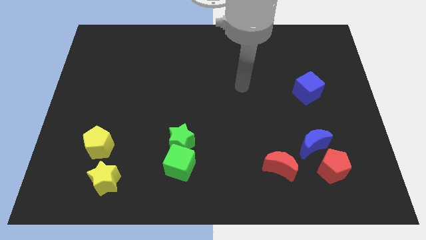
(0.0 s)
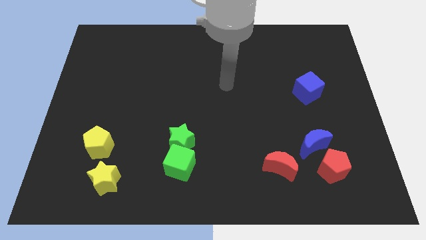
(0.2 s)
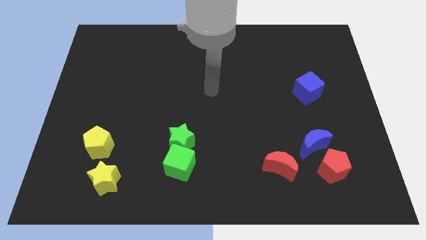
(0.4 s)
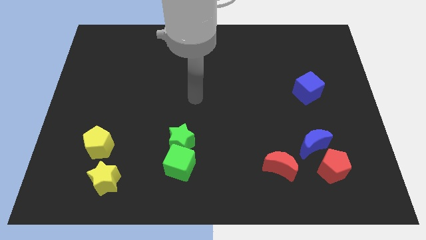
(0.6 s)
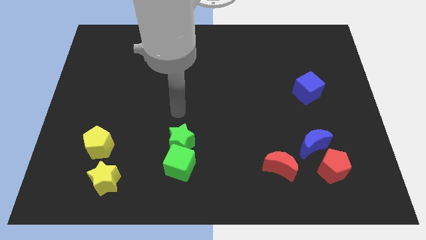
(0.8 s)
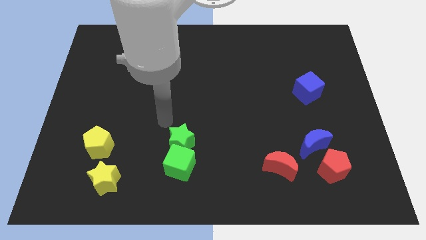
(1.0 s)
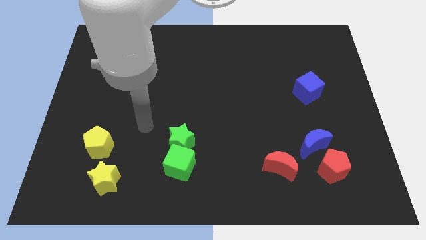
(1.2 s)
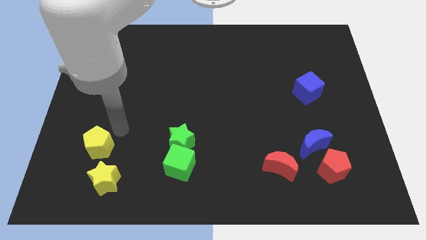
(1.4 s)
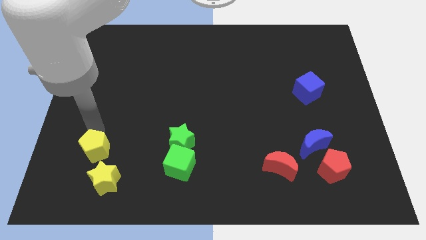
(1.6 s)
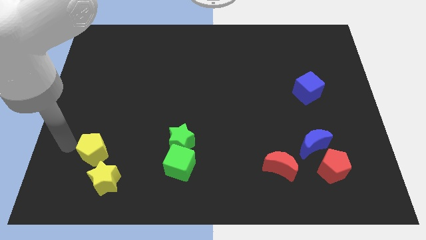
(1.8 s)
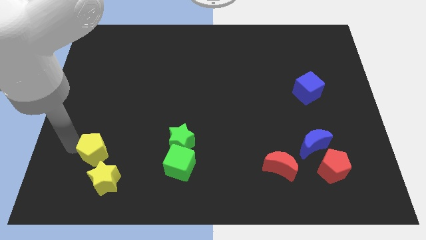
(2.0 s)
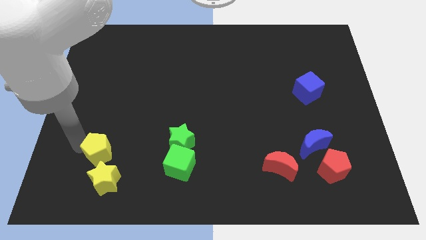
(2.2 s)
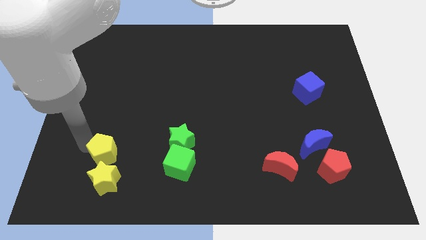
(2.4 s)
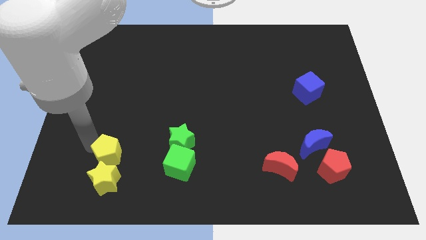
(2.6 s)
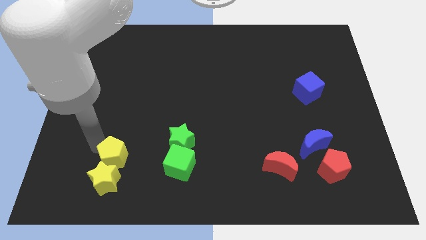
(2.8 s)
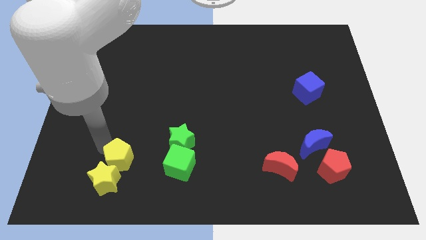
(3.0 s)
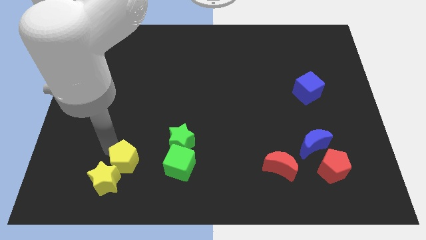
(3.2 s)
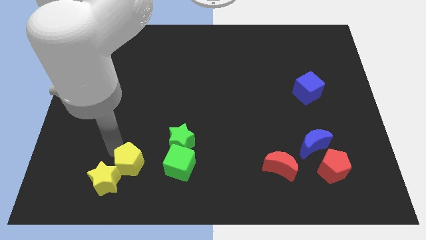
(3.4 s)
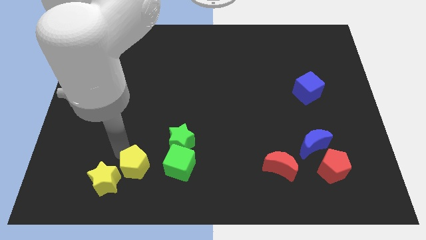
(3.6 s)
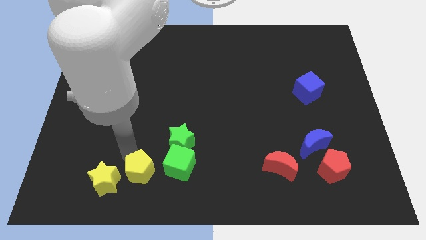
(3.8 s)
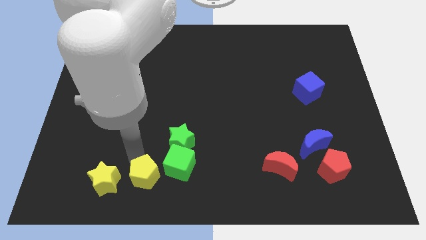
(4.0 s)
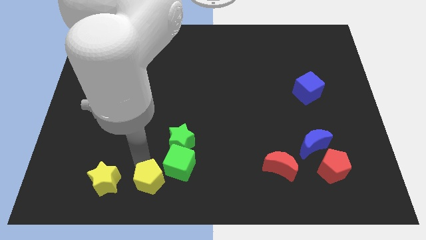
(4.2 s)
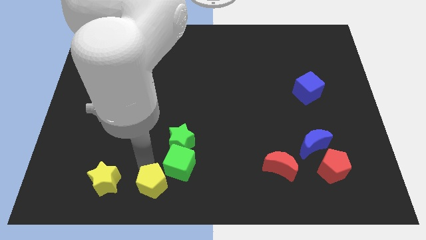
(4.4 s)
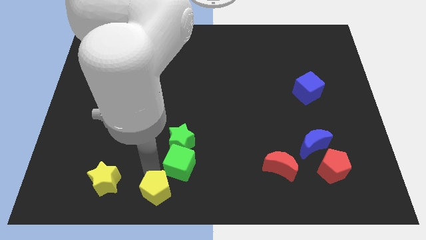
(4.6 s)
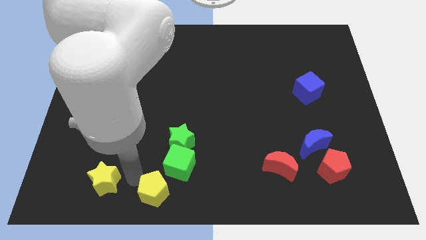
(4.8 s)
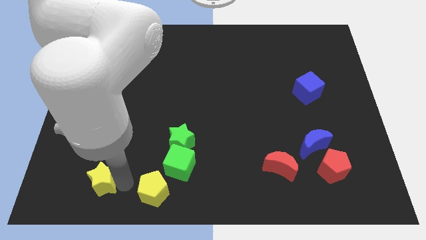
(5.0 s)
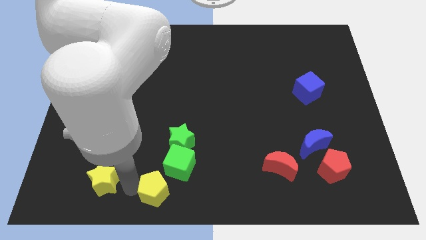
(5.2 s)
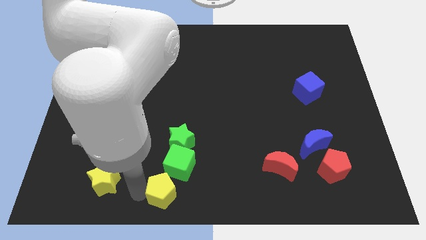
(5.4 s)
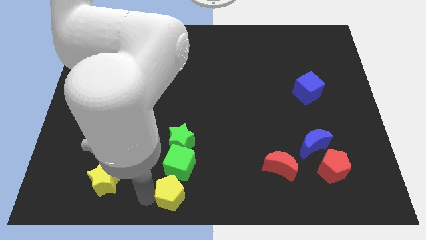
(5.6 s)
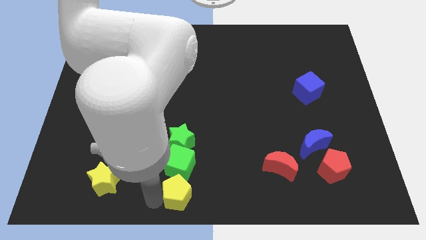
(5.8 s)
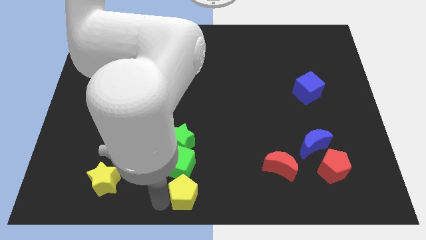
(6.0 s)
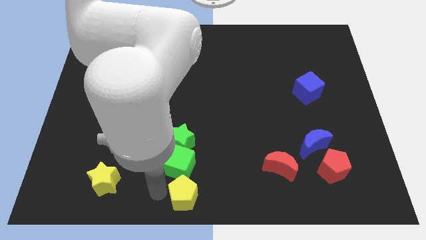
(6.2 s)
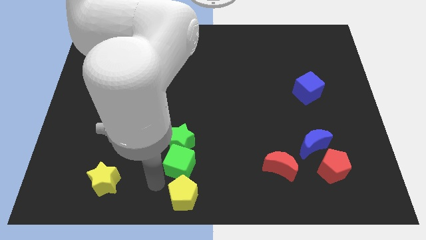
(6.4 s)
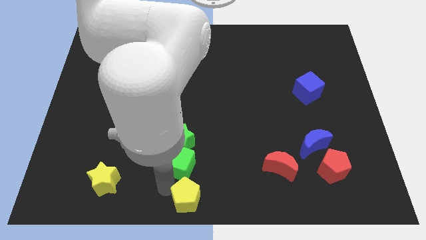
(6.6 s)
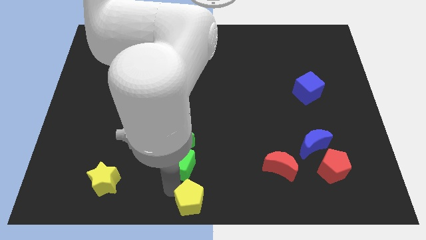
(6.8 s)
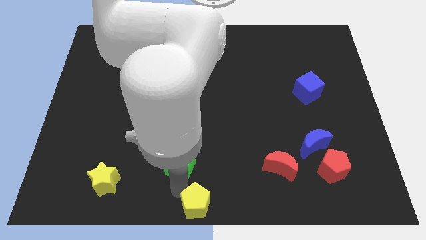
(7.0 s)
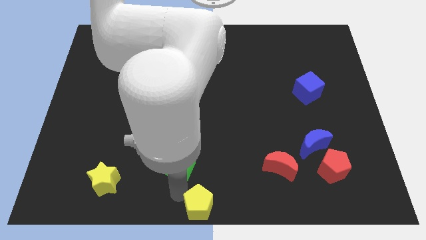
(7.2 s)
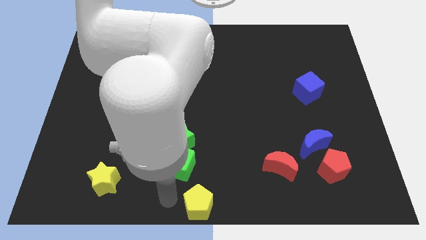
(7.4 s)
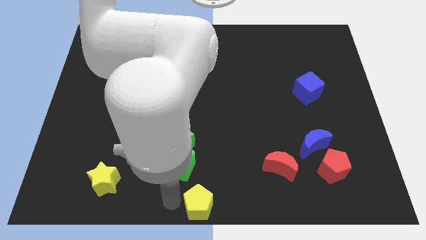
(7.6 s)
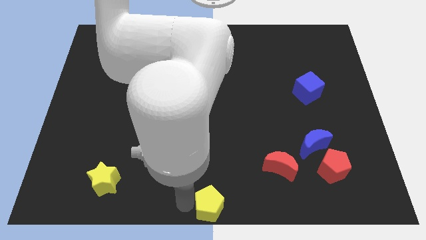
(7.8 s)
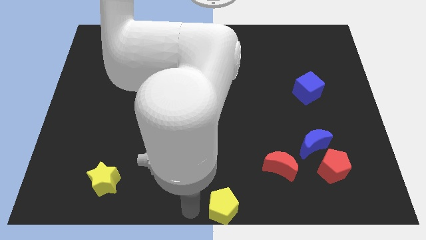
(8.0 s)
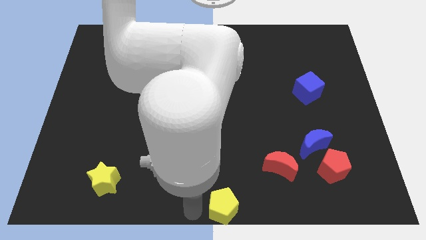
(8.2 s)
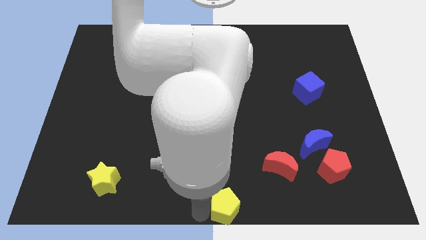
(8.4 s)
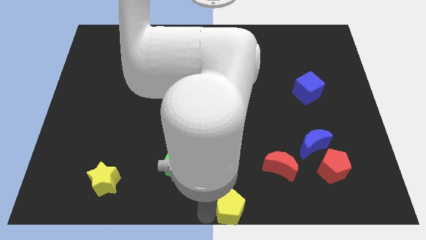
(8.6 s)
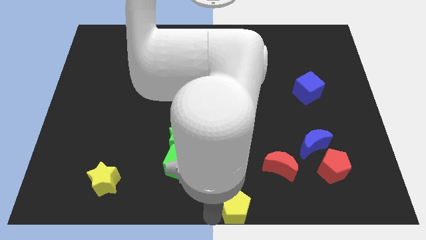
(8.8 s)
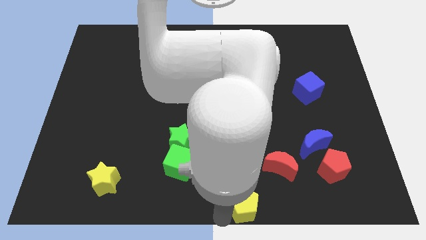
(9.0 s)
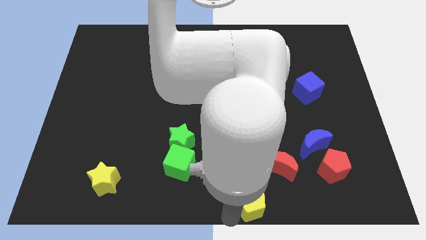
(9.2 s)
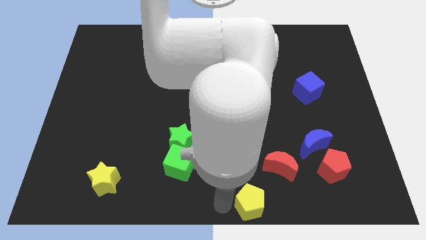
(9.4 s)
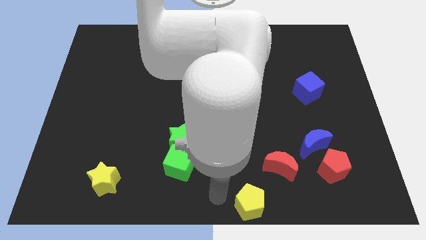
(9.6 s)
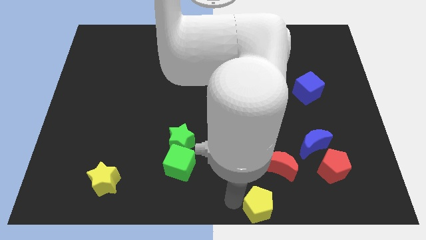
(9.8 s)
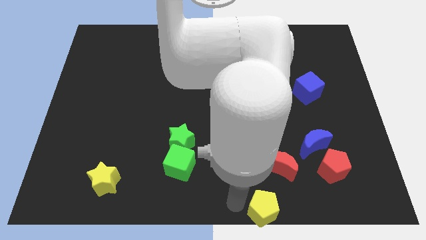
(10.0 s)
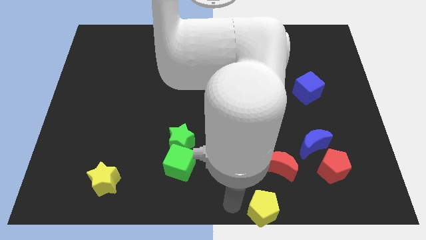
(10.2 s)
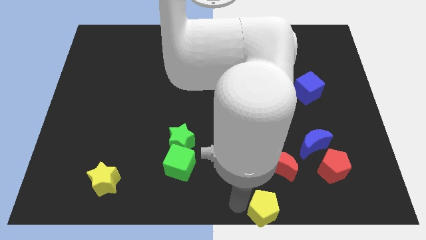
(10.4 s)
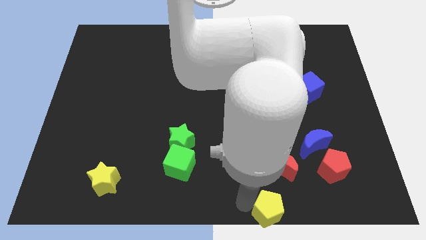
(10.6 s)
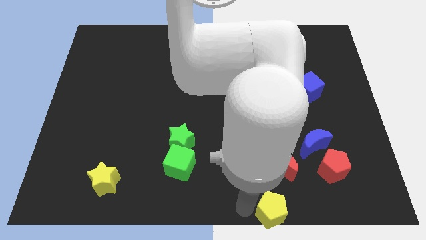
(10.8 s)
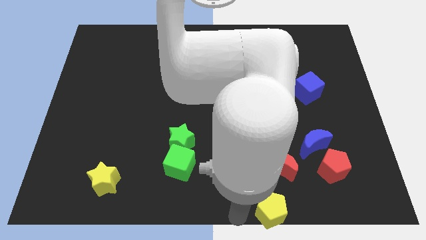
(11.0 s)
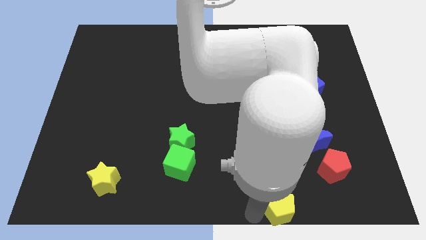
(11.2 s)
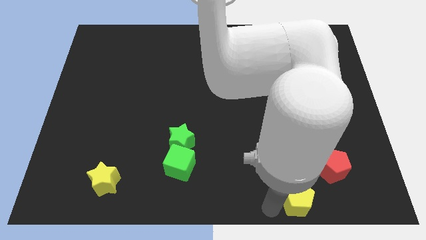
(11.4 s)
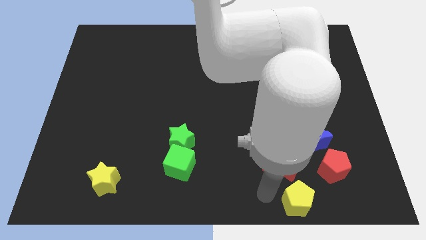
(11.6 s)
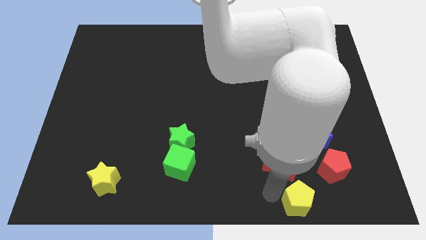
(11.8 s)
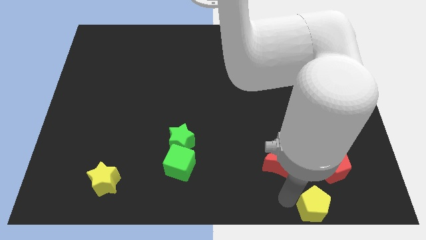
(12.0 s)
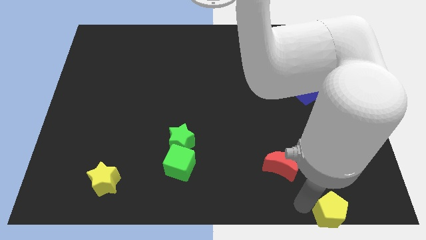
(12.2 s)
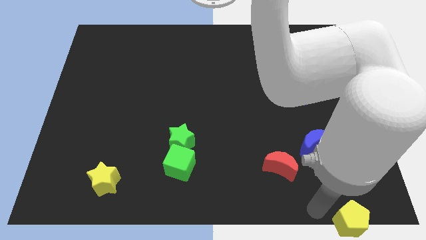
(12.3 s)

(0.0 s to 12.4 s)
push the yellow pentagon to the bottom right corner

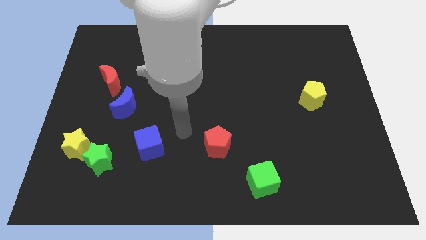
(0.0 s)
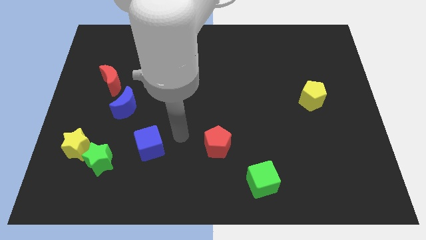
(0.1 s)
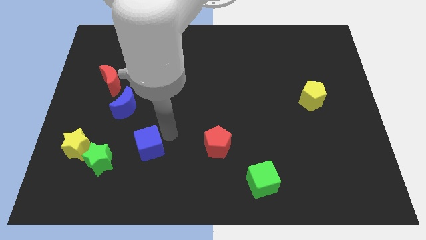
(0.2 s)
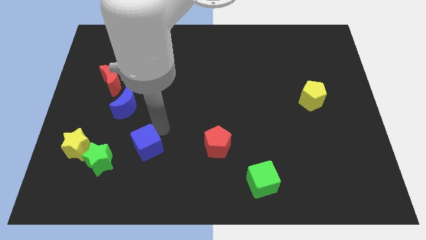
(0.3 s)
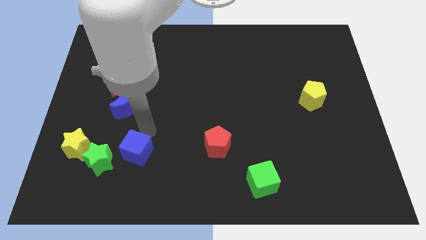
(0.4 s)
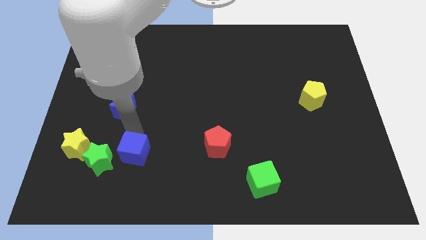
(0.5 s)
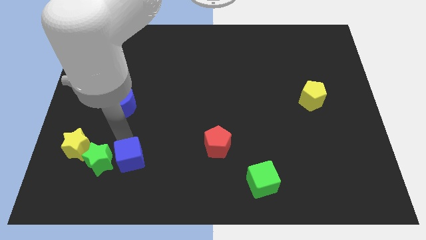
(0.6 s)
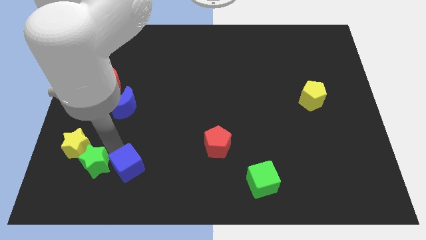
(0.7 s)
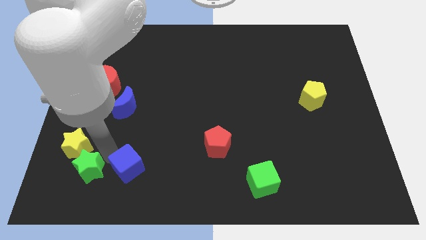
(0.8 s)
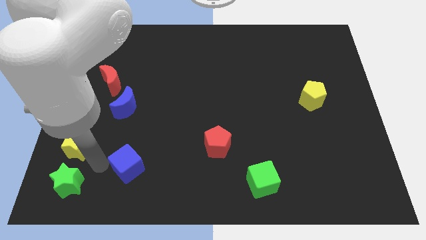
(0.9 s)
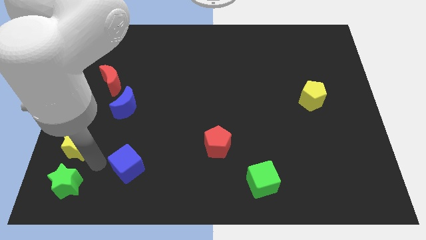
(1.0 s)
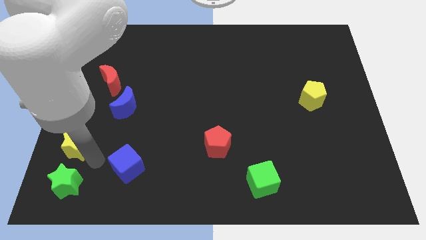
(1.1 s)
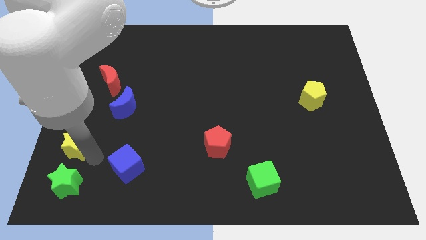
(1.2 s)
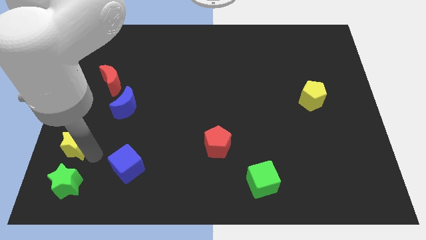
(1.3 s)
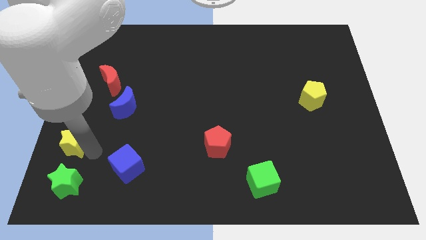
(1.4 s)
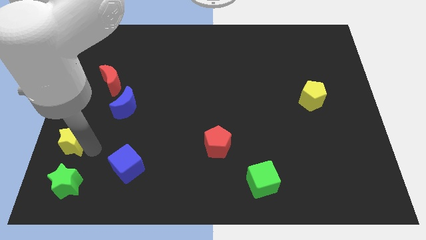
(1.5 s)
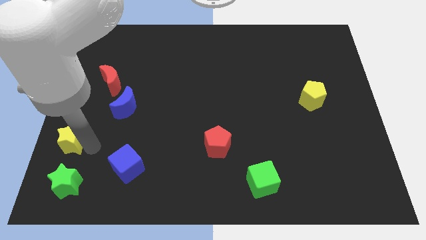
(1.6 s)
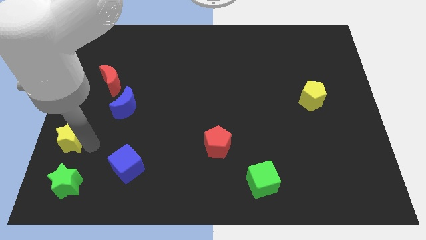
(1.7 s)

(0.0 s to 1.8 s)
slide the yellow star to the left side
